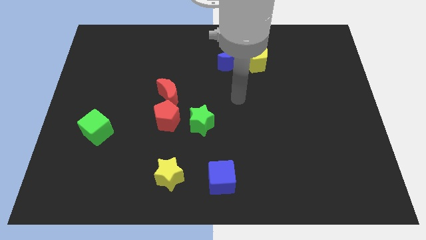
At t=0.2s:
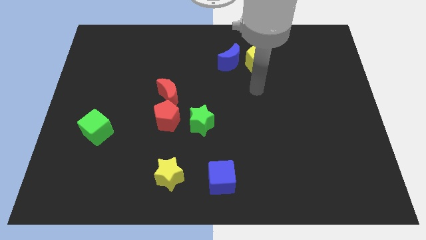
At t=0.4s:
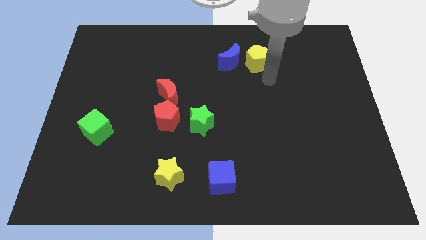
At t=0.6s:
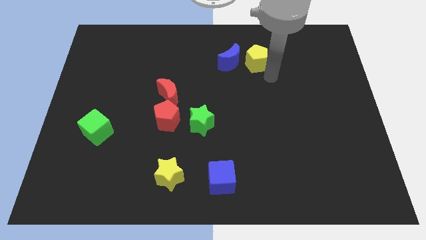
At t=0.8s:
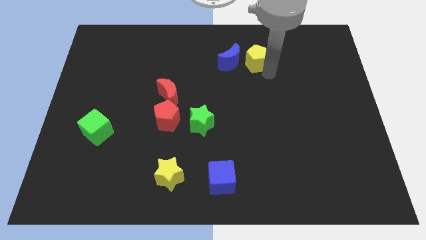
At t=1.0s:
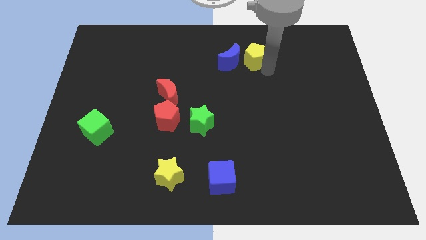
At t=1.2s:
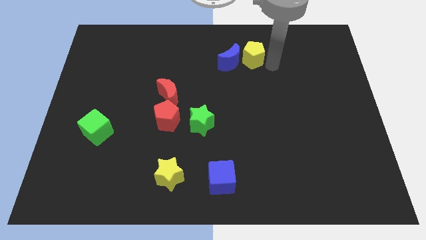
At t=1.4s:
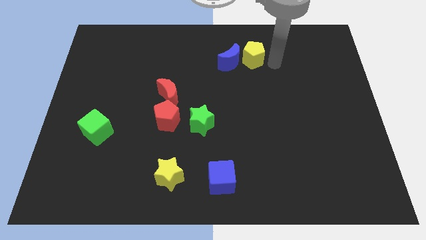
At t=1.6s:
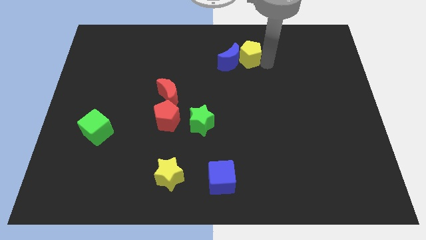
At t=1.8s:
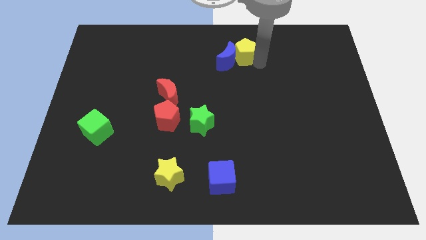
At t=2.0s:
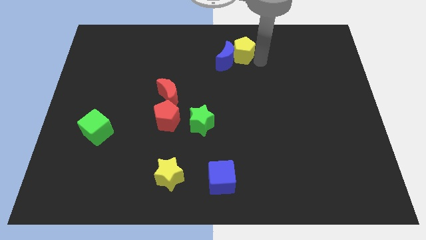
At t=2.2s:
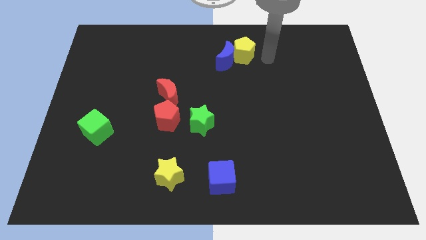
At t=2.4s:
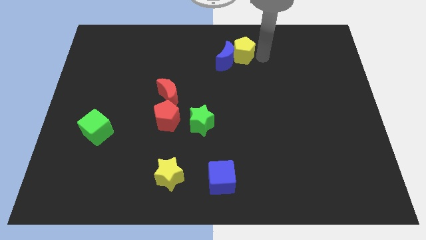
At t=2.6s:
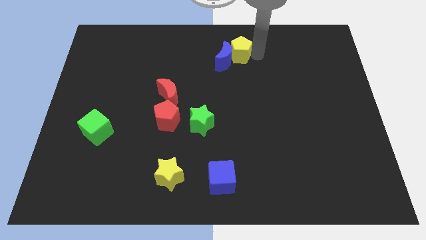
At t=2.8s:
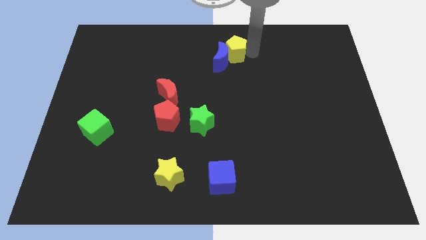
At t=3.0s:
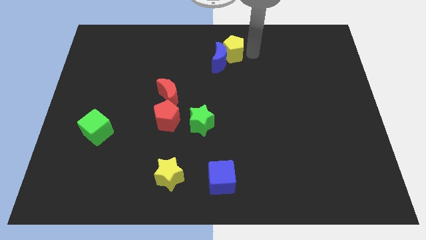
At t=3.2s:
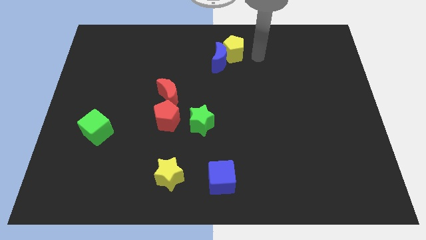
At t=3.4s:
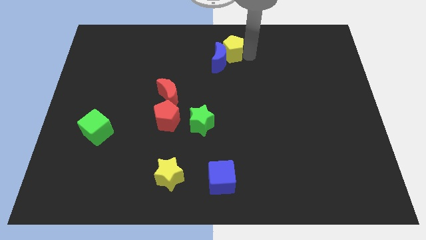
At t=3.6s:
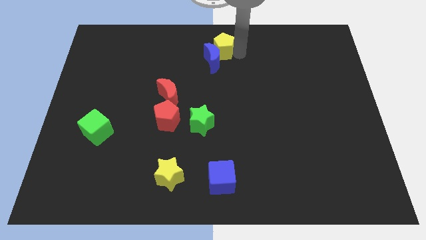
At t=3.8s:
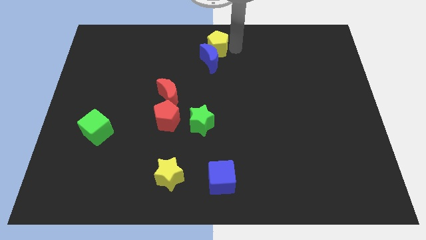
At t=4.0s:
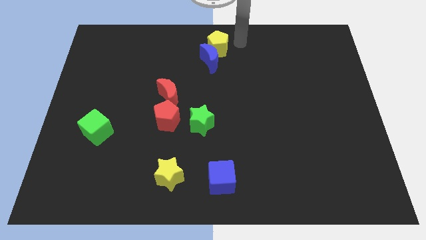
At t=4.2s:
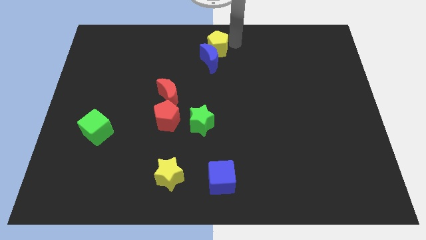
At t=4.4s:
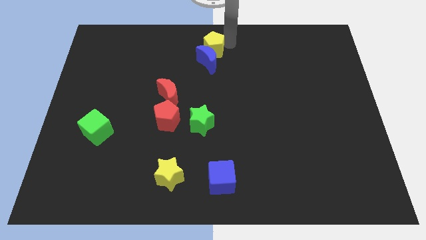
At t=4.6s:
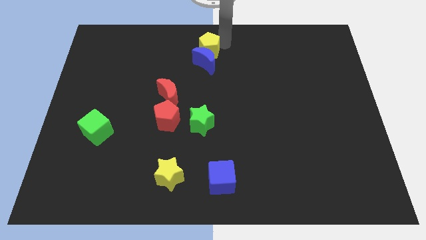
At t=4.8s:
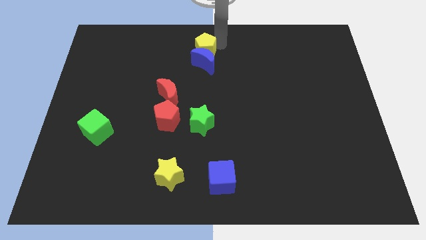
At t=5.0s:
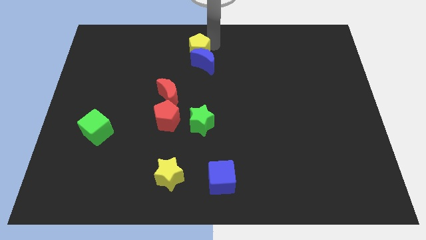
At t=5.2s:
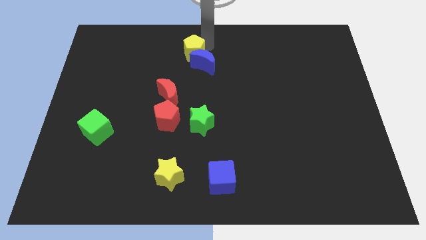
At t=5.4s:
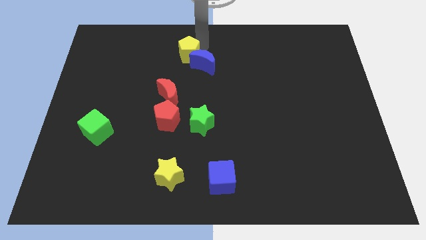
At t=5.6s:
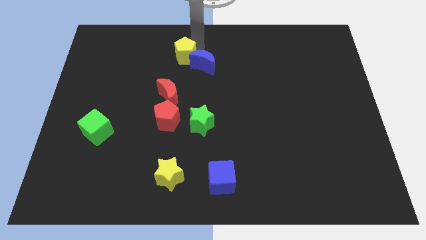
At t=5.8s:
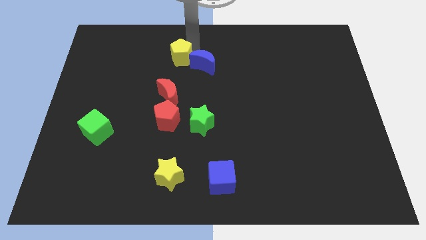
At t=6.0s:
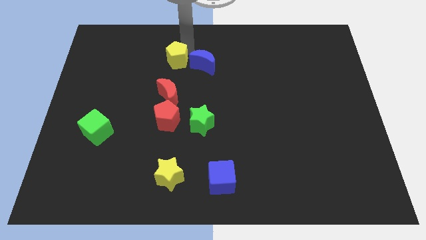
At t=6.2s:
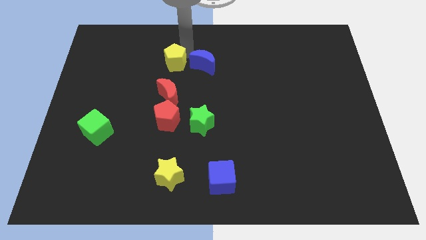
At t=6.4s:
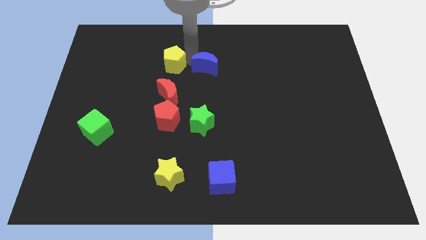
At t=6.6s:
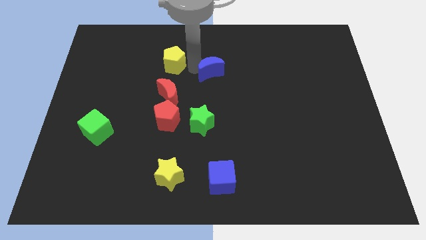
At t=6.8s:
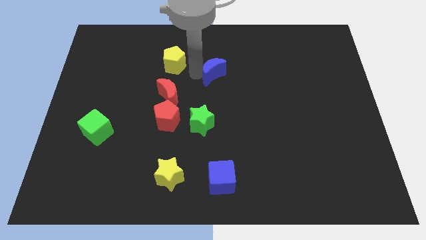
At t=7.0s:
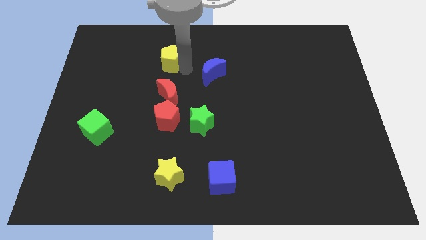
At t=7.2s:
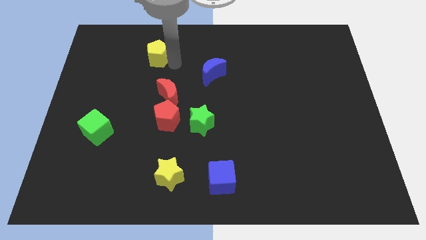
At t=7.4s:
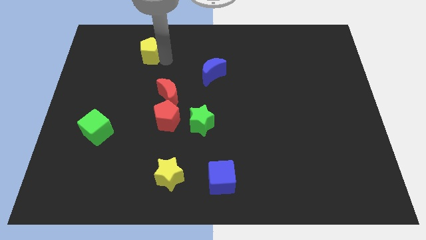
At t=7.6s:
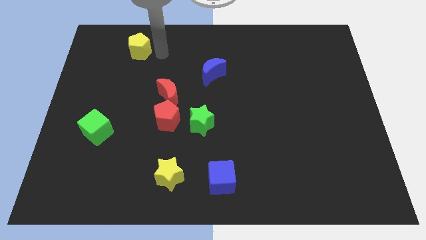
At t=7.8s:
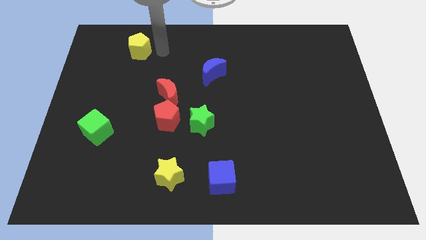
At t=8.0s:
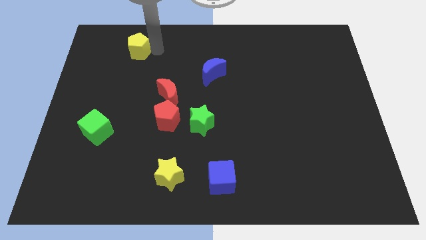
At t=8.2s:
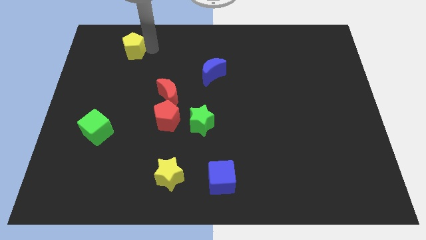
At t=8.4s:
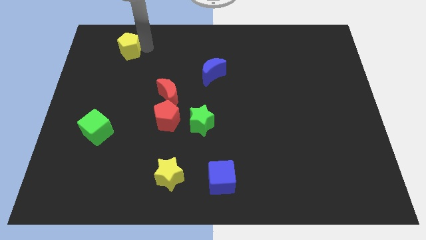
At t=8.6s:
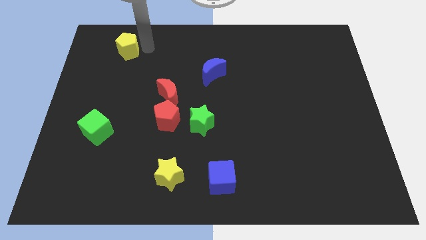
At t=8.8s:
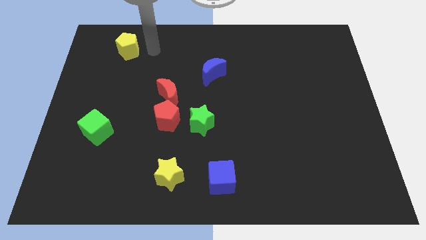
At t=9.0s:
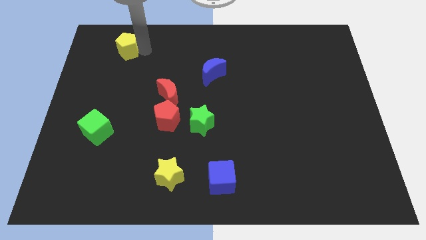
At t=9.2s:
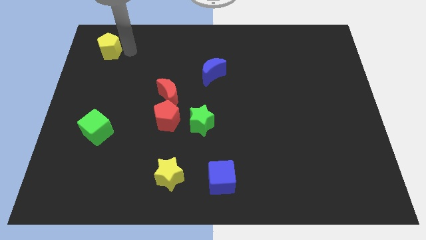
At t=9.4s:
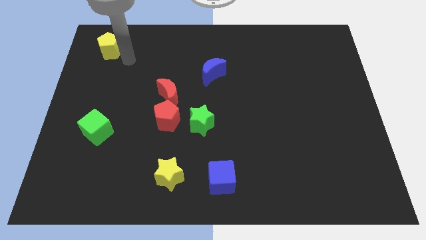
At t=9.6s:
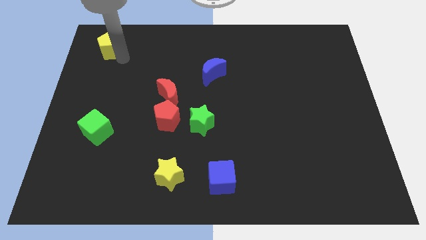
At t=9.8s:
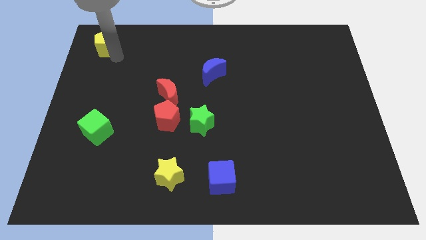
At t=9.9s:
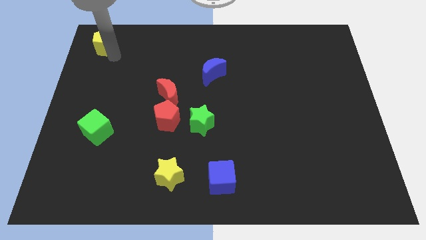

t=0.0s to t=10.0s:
move the yellow pentagon to the upper left corner

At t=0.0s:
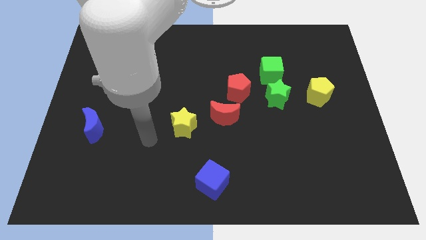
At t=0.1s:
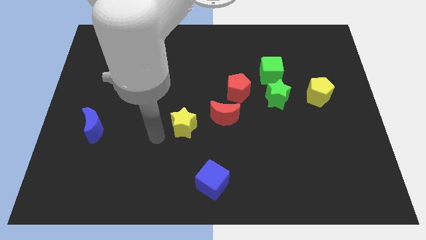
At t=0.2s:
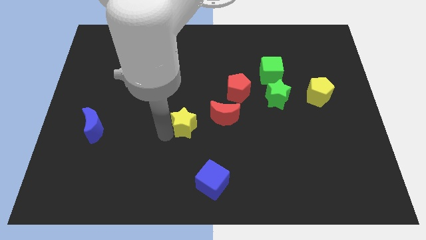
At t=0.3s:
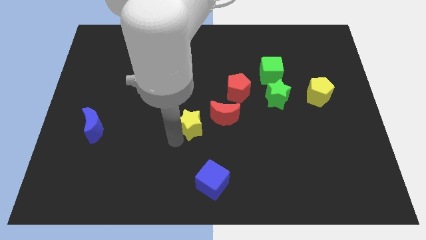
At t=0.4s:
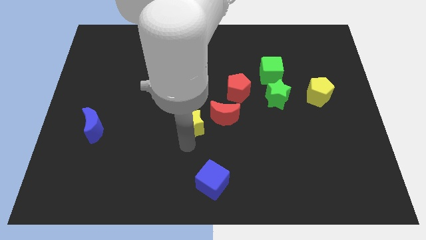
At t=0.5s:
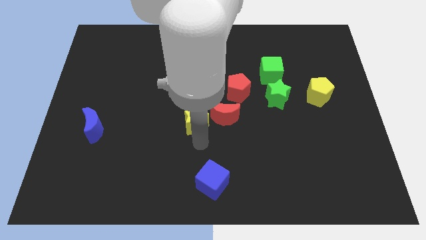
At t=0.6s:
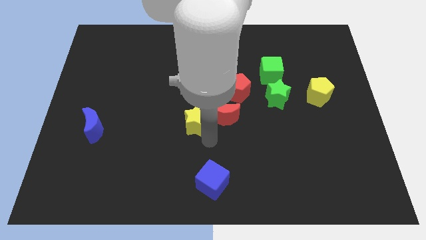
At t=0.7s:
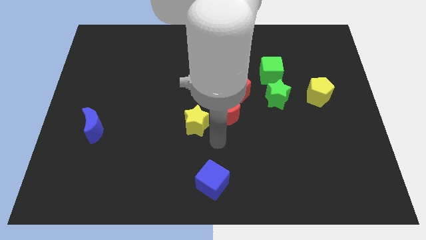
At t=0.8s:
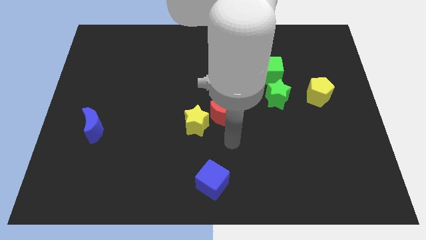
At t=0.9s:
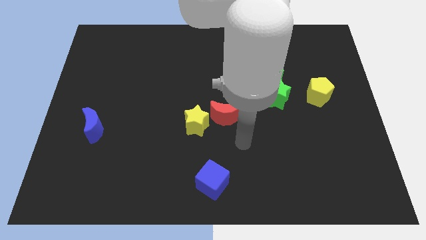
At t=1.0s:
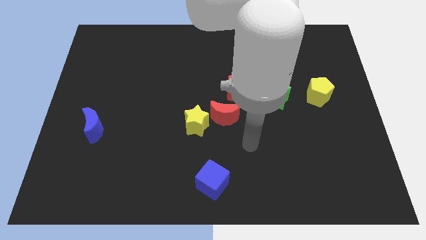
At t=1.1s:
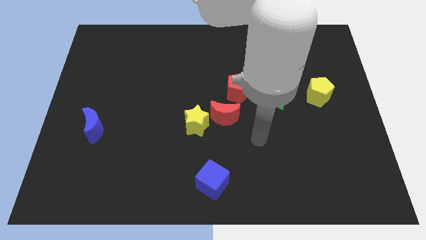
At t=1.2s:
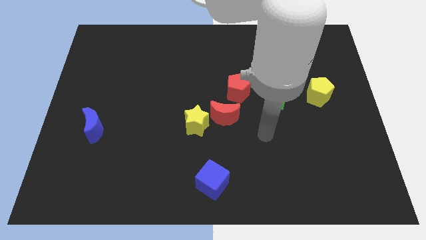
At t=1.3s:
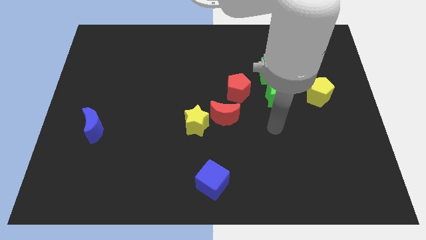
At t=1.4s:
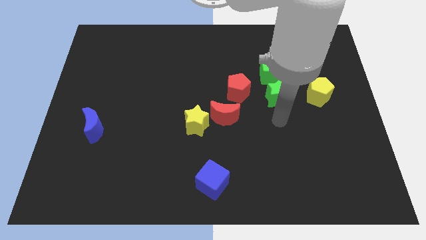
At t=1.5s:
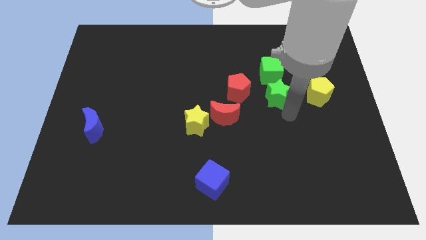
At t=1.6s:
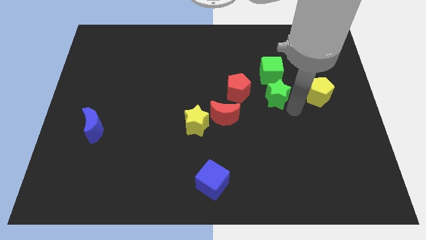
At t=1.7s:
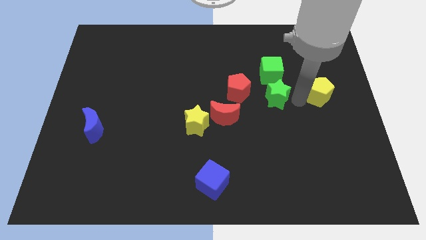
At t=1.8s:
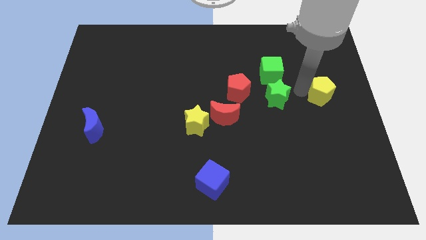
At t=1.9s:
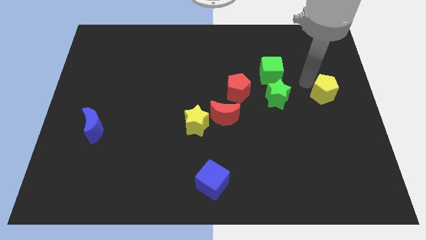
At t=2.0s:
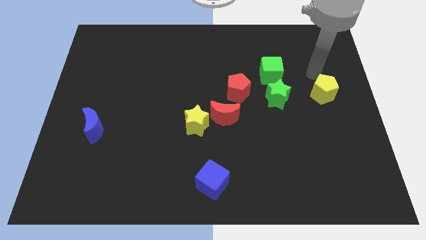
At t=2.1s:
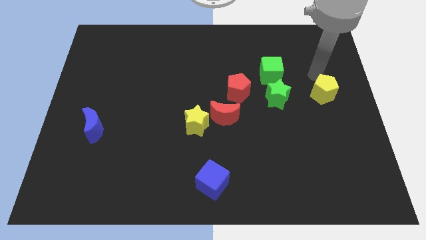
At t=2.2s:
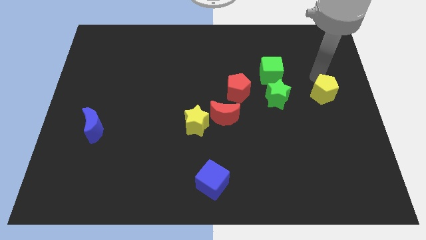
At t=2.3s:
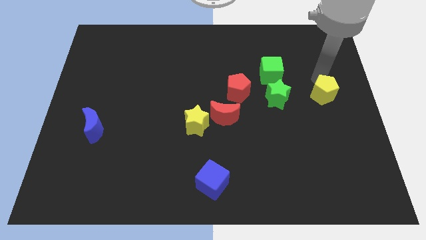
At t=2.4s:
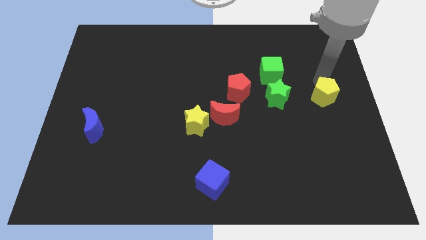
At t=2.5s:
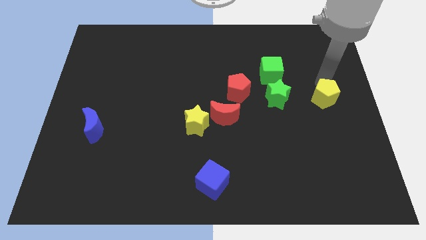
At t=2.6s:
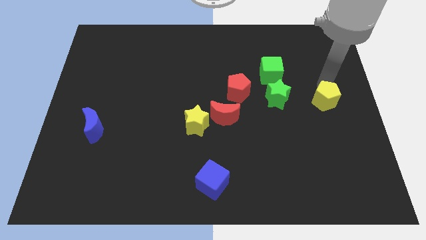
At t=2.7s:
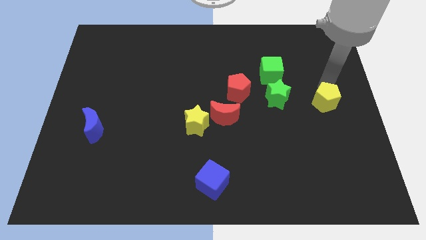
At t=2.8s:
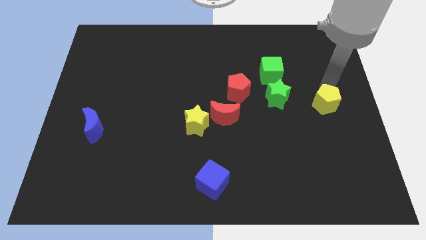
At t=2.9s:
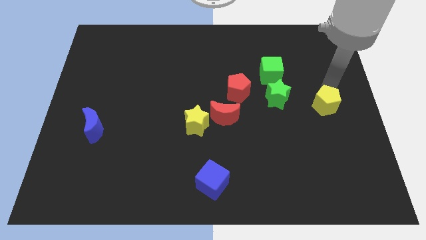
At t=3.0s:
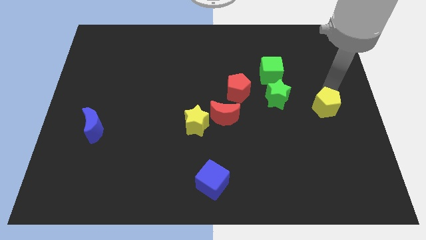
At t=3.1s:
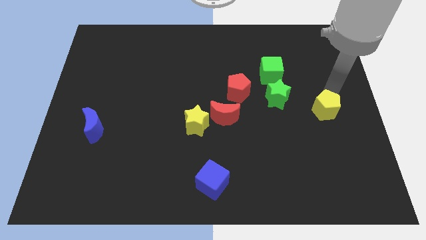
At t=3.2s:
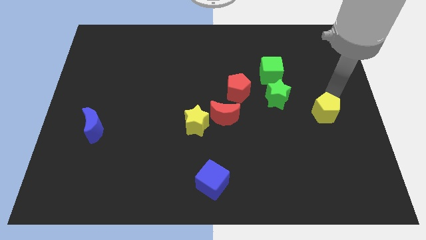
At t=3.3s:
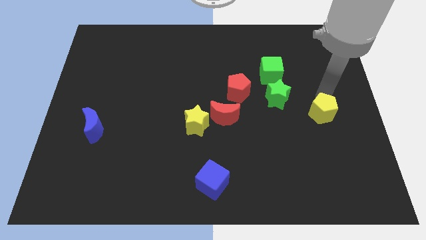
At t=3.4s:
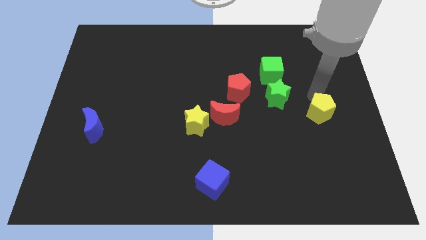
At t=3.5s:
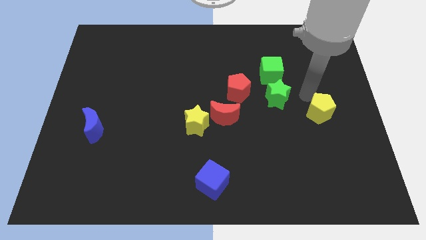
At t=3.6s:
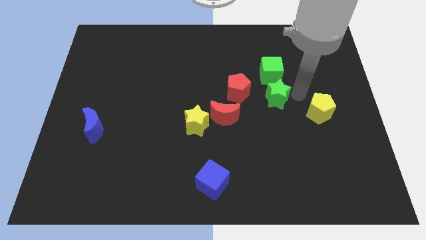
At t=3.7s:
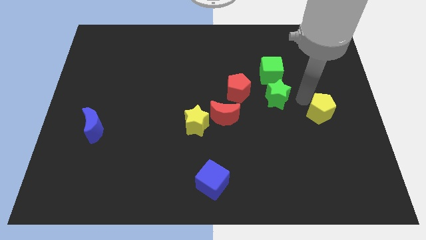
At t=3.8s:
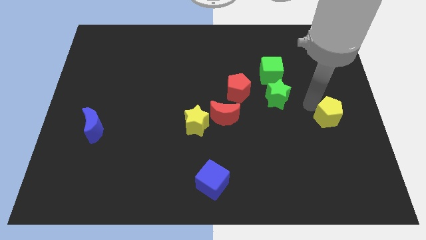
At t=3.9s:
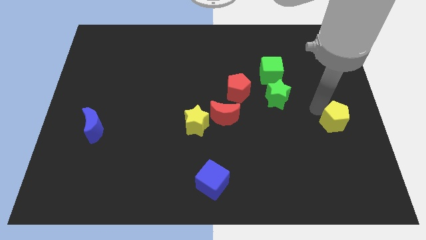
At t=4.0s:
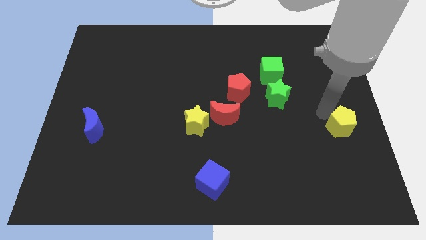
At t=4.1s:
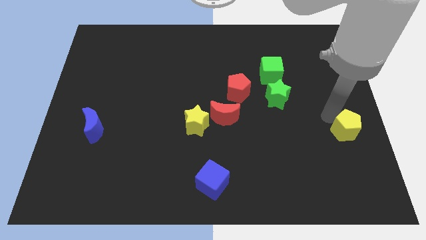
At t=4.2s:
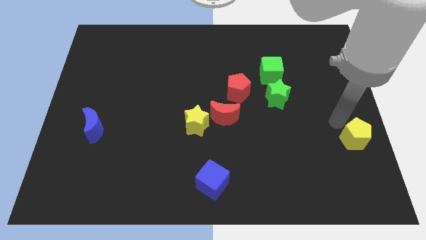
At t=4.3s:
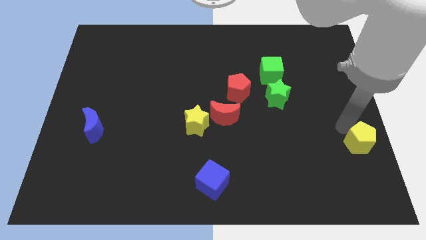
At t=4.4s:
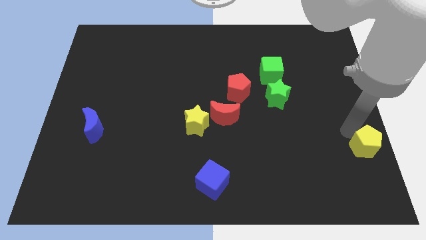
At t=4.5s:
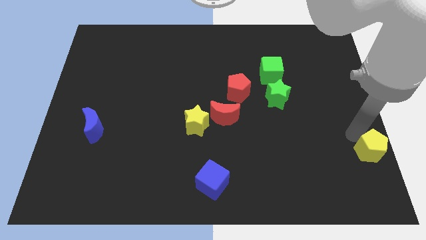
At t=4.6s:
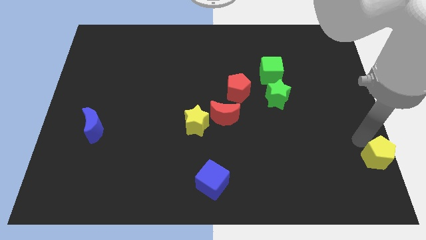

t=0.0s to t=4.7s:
push the yellow pentagon to the bottom right corner
